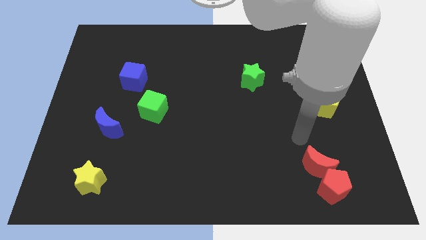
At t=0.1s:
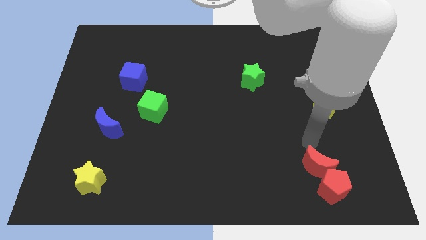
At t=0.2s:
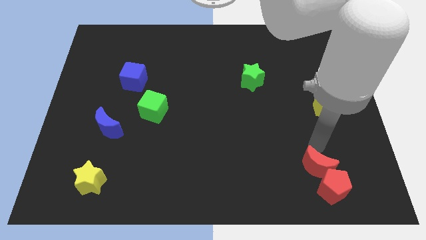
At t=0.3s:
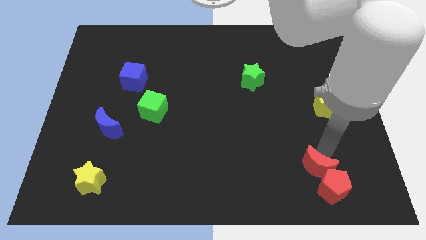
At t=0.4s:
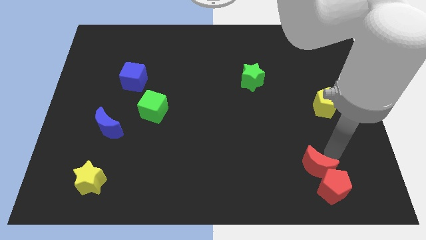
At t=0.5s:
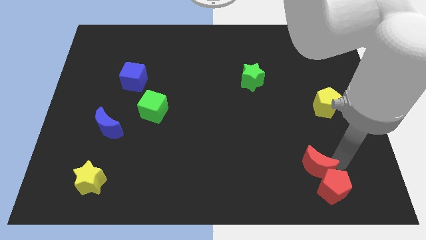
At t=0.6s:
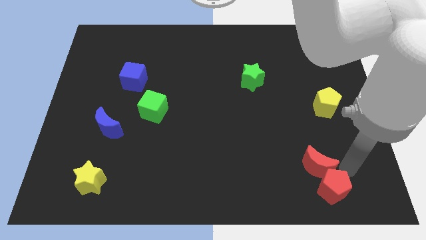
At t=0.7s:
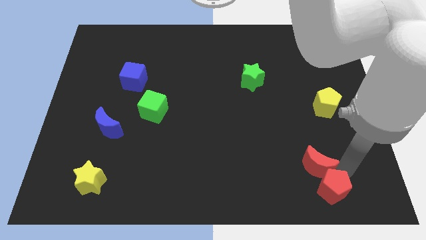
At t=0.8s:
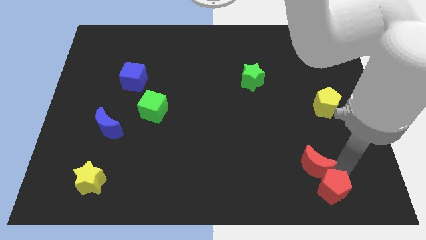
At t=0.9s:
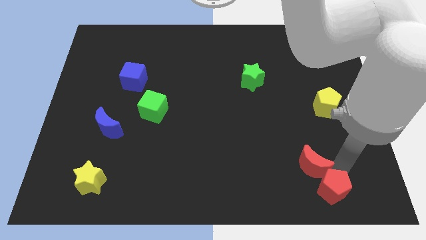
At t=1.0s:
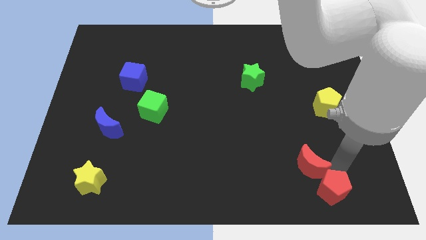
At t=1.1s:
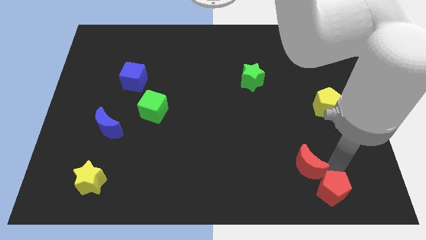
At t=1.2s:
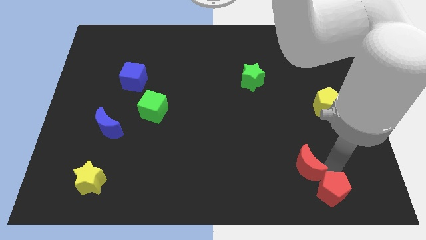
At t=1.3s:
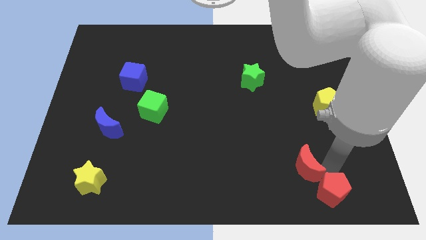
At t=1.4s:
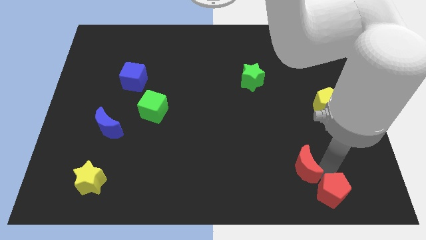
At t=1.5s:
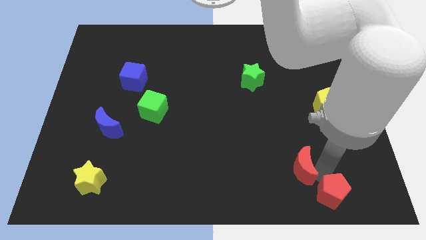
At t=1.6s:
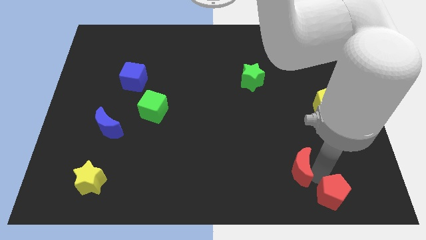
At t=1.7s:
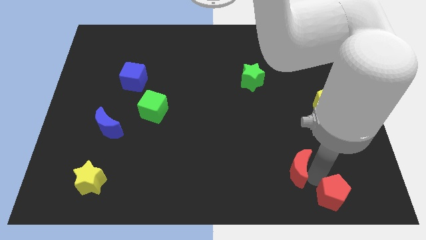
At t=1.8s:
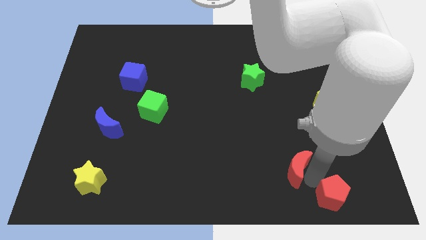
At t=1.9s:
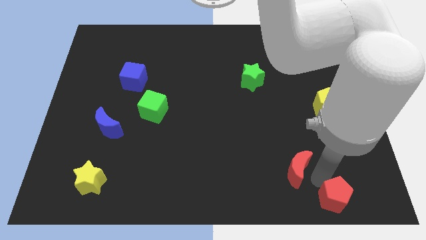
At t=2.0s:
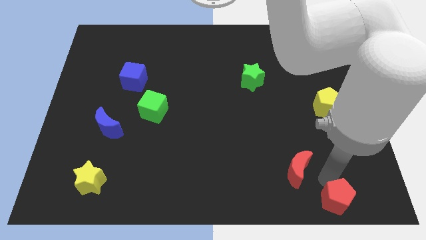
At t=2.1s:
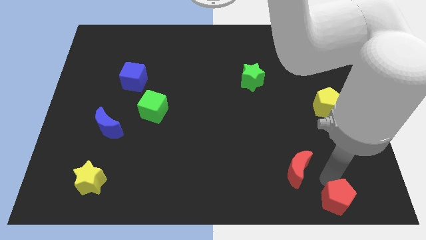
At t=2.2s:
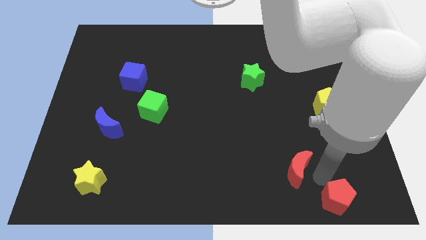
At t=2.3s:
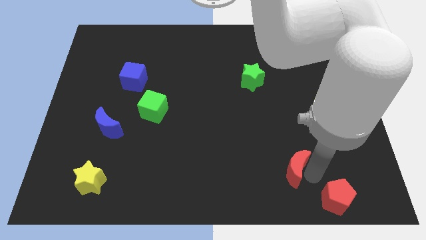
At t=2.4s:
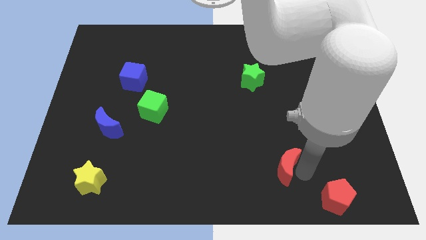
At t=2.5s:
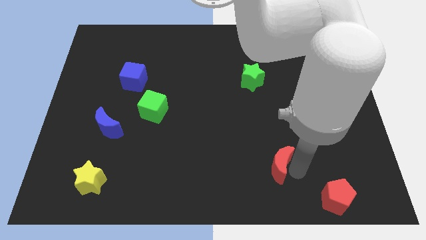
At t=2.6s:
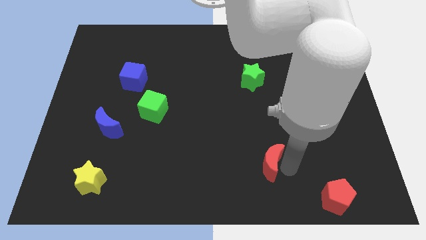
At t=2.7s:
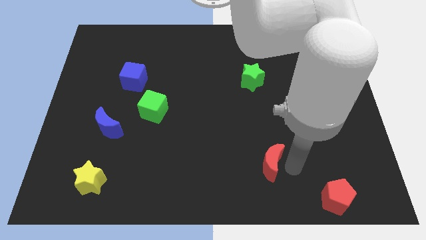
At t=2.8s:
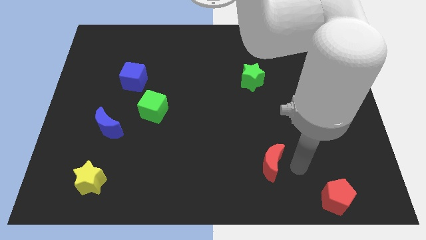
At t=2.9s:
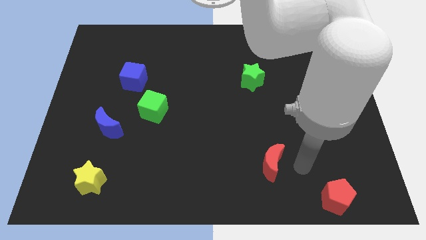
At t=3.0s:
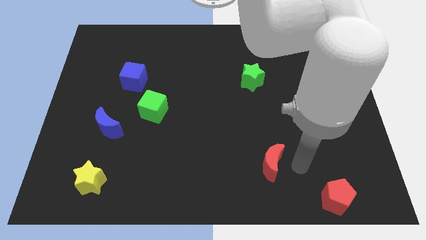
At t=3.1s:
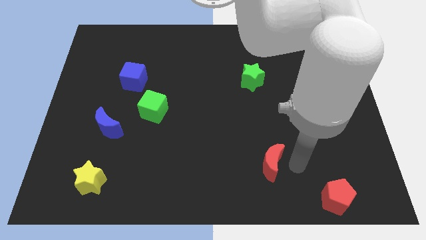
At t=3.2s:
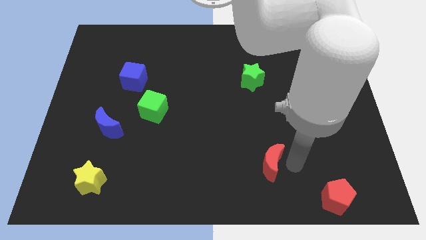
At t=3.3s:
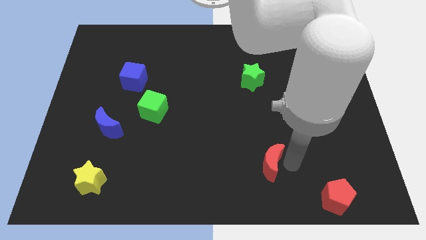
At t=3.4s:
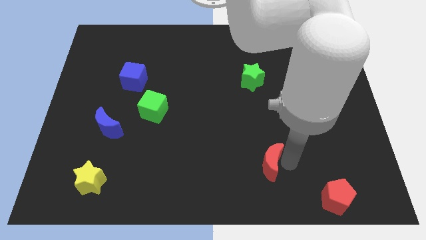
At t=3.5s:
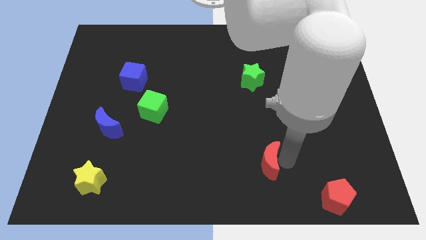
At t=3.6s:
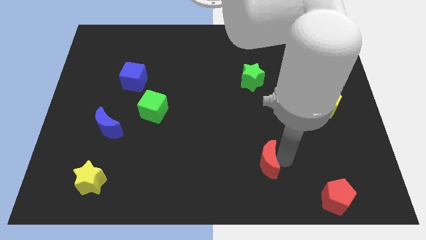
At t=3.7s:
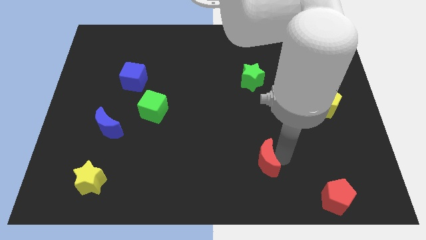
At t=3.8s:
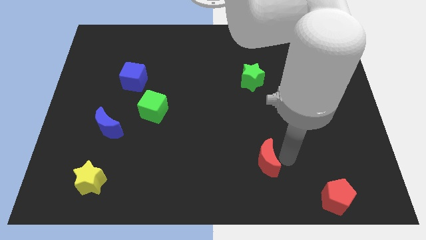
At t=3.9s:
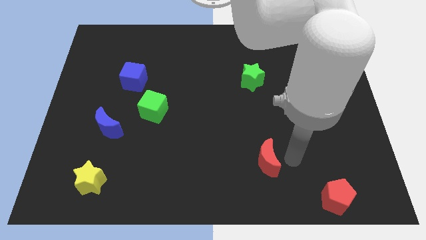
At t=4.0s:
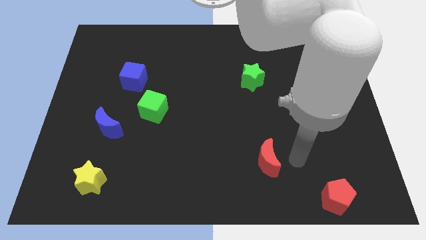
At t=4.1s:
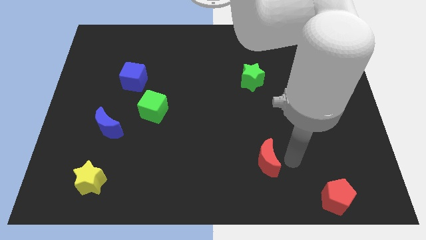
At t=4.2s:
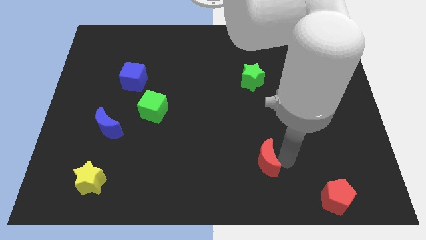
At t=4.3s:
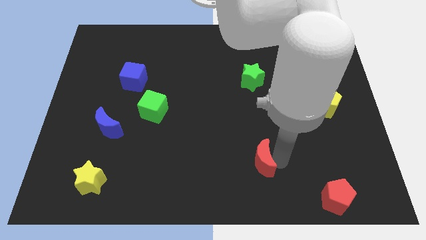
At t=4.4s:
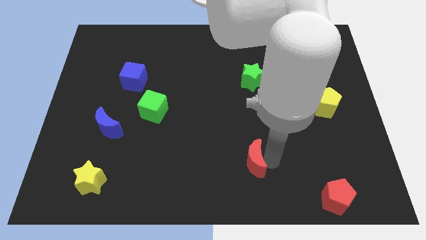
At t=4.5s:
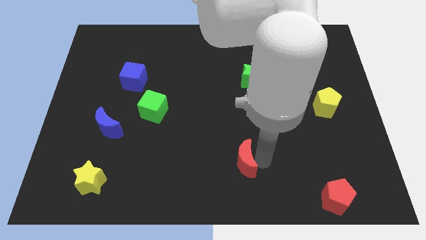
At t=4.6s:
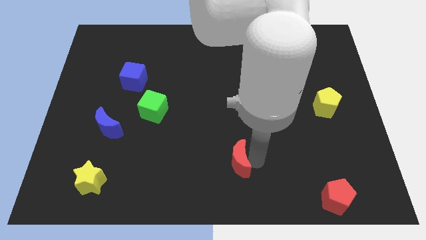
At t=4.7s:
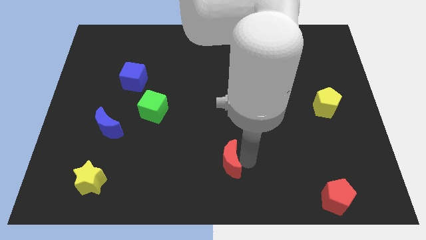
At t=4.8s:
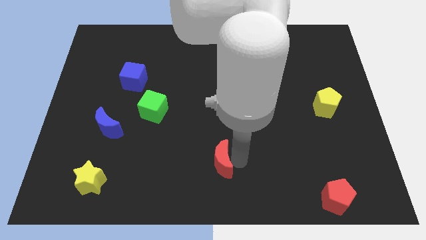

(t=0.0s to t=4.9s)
slide the red moon to the left

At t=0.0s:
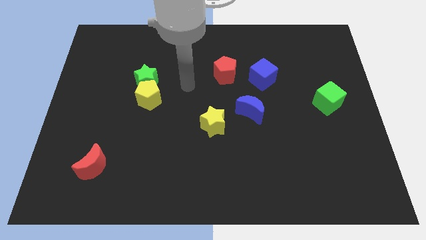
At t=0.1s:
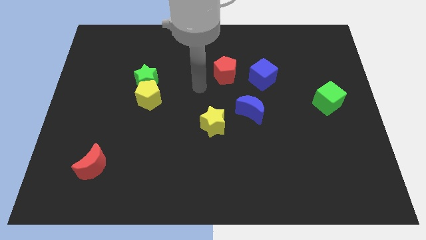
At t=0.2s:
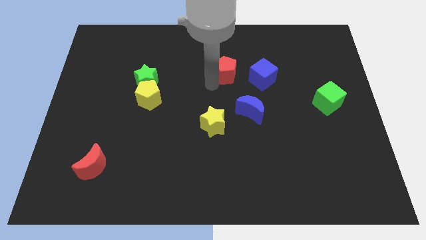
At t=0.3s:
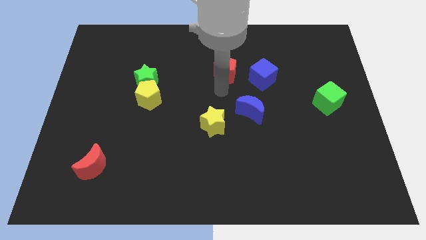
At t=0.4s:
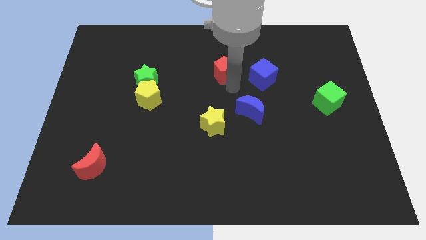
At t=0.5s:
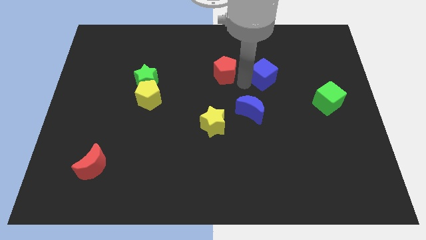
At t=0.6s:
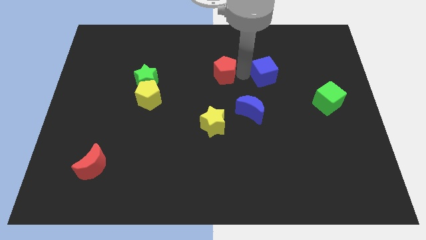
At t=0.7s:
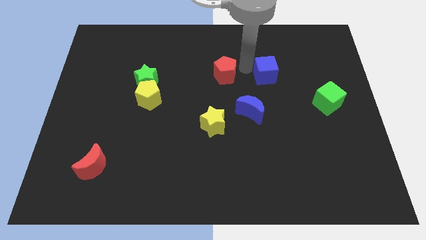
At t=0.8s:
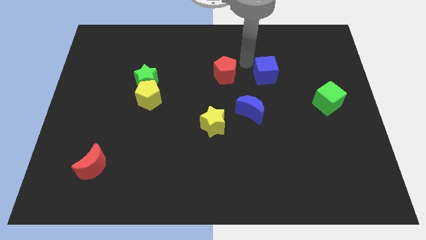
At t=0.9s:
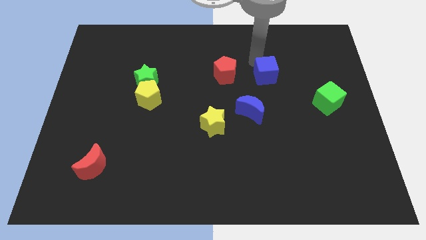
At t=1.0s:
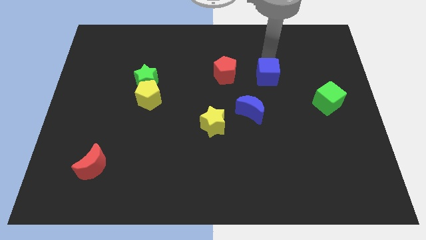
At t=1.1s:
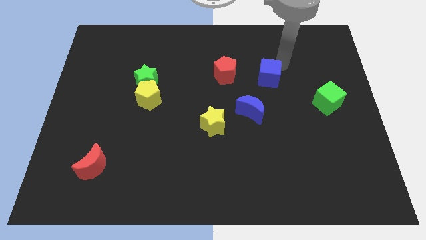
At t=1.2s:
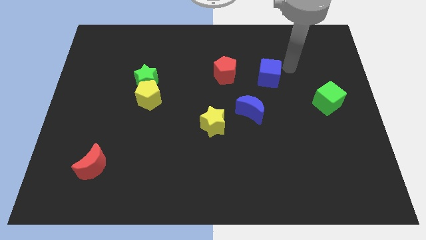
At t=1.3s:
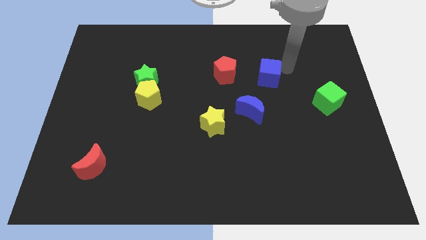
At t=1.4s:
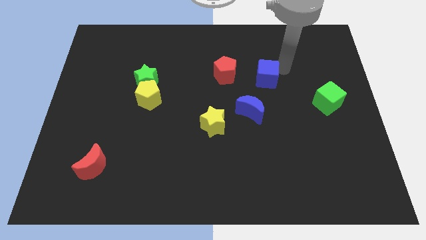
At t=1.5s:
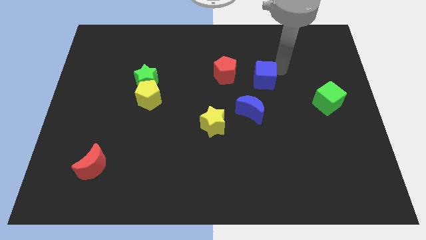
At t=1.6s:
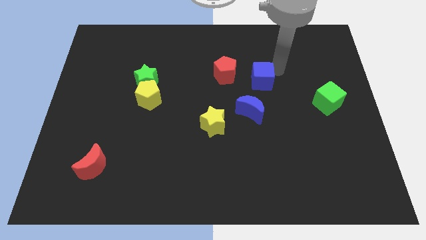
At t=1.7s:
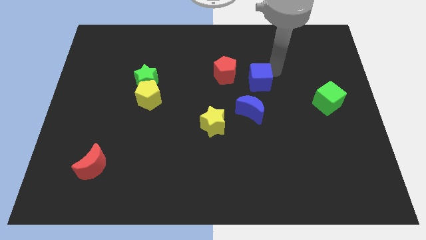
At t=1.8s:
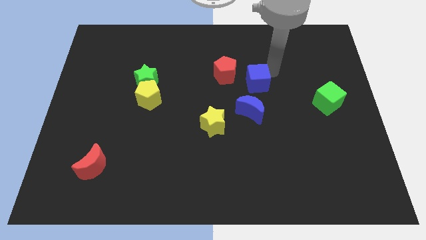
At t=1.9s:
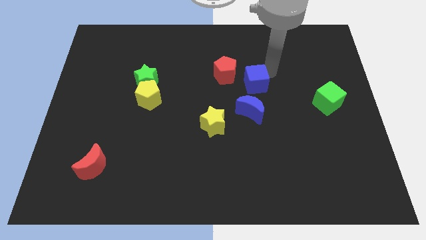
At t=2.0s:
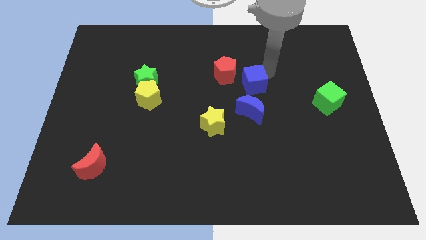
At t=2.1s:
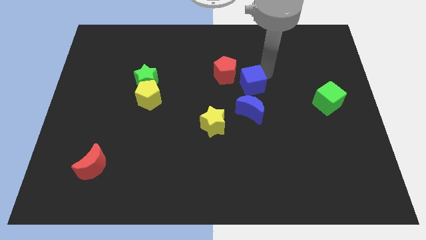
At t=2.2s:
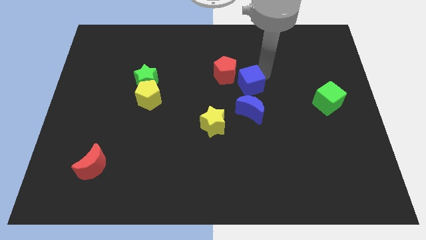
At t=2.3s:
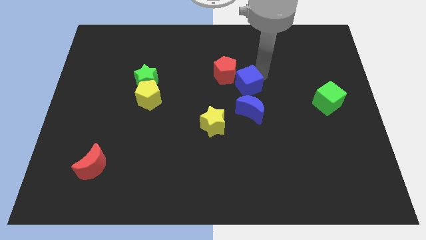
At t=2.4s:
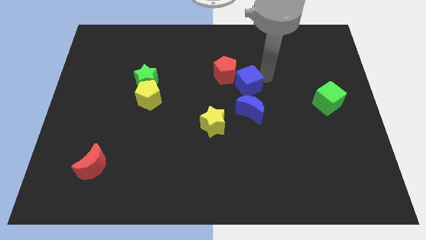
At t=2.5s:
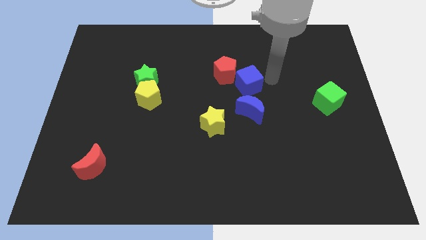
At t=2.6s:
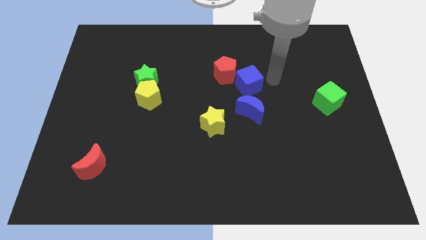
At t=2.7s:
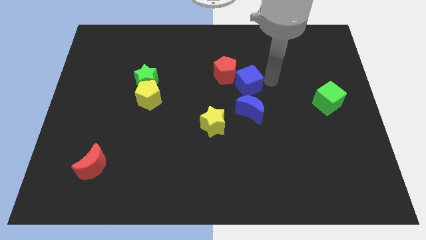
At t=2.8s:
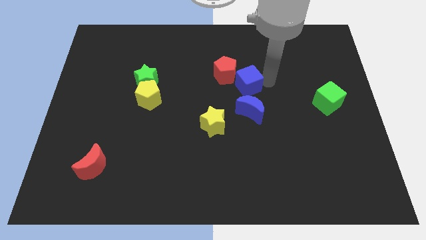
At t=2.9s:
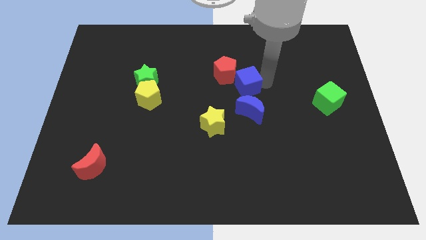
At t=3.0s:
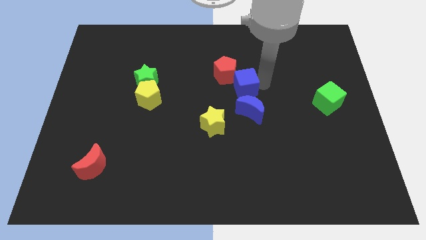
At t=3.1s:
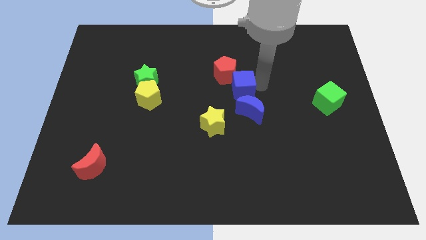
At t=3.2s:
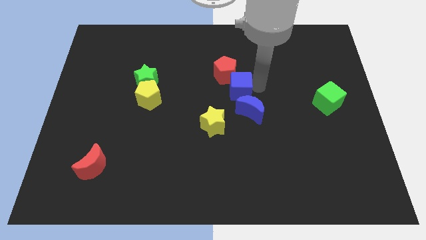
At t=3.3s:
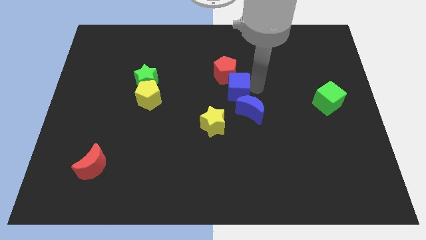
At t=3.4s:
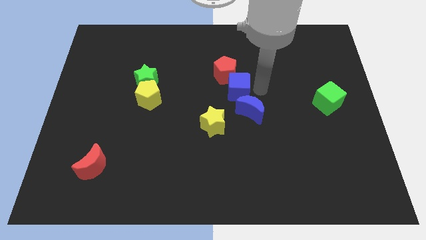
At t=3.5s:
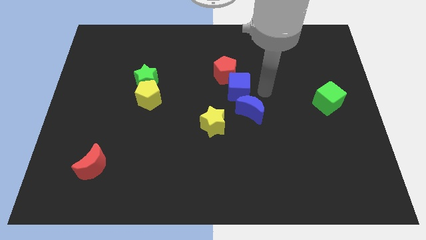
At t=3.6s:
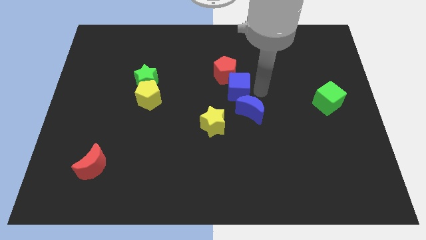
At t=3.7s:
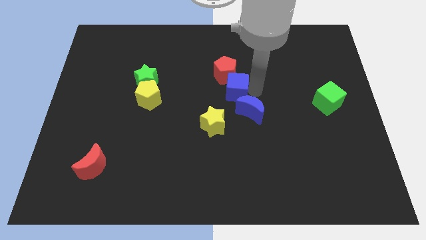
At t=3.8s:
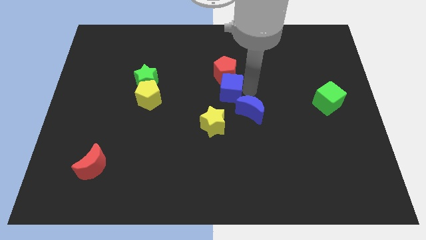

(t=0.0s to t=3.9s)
move the blue cube a little to the left
